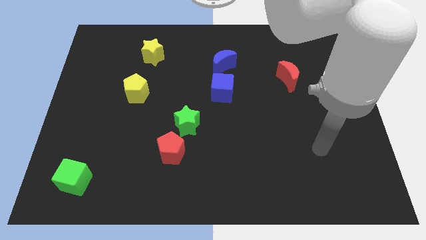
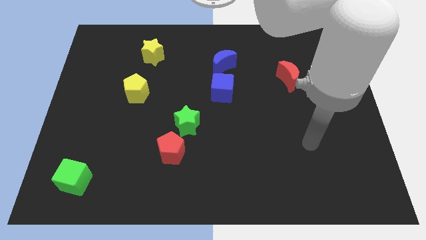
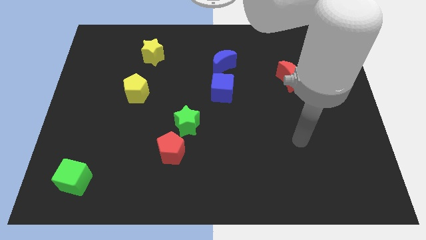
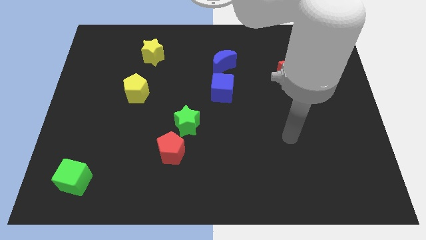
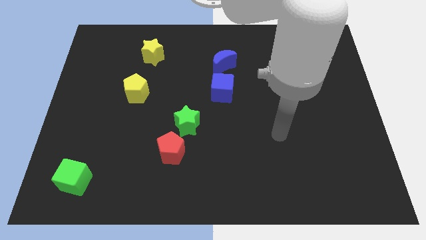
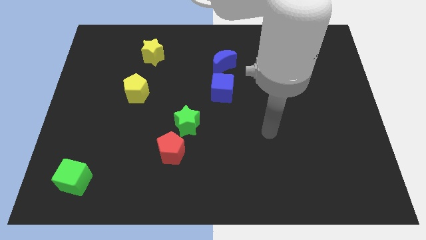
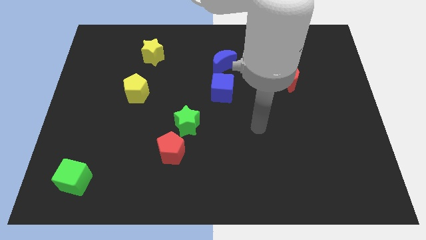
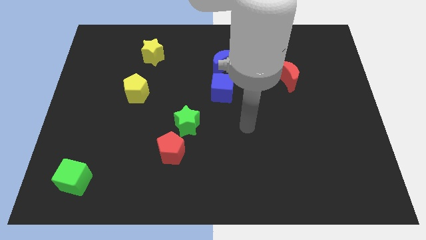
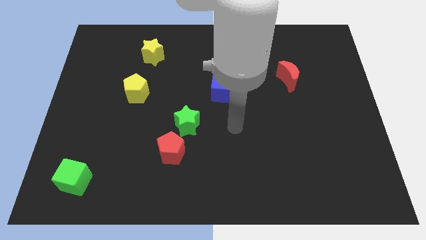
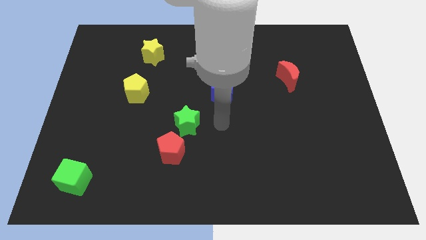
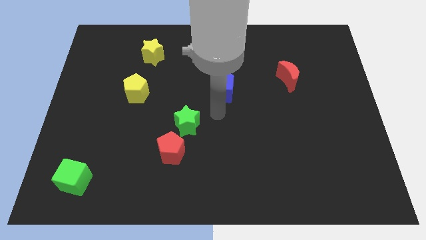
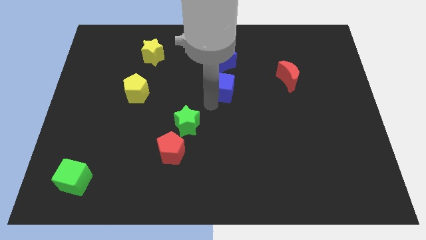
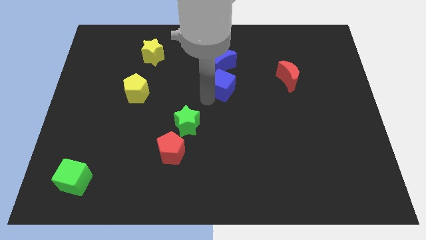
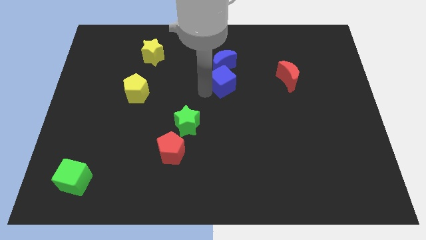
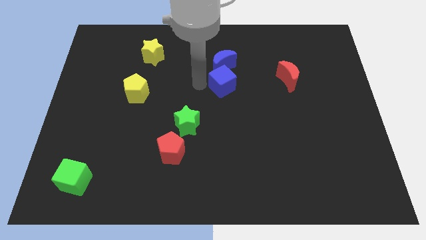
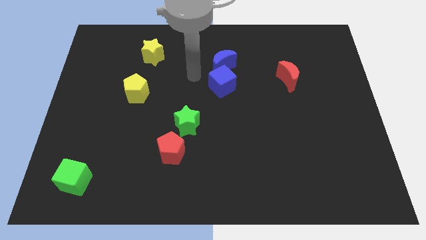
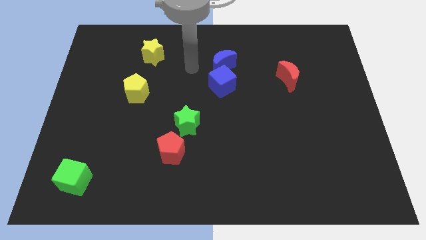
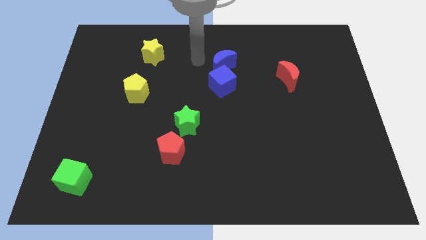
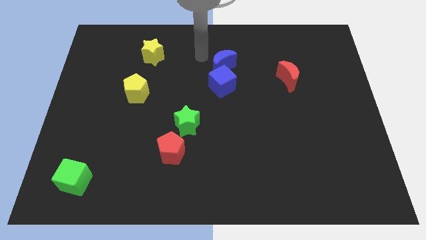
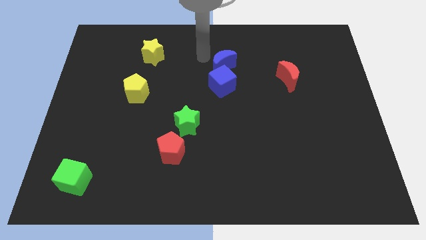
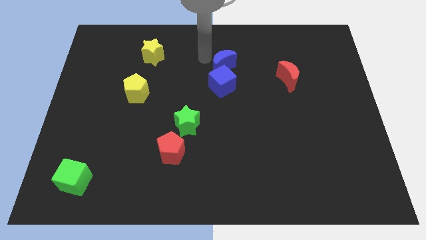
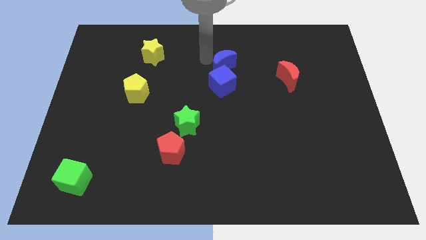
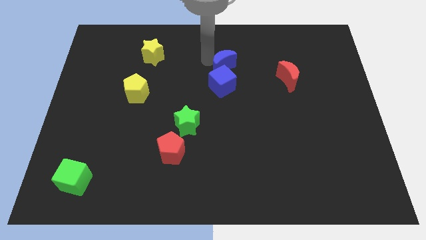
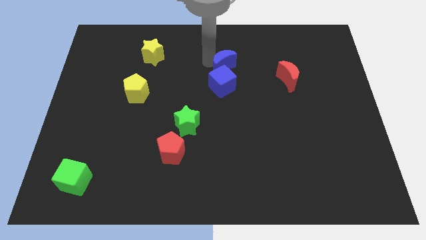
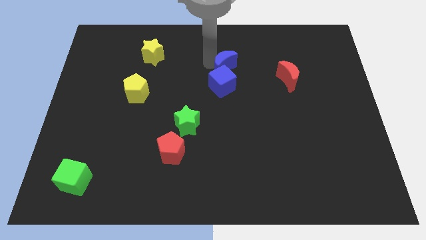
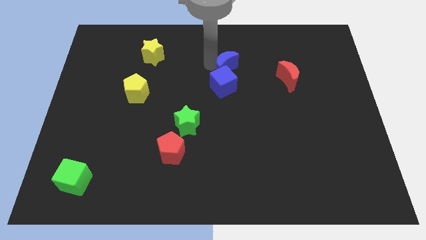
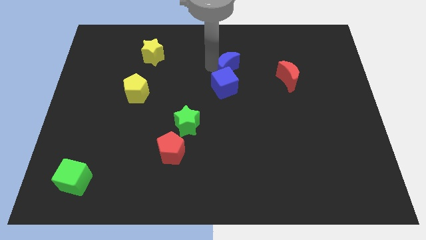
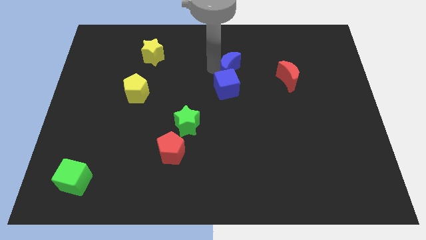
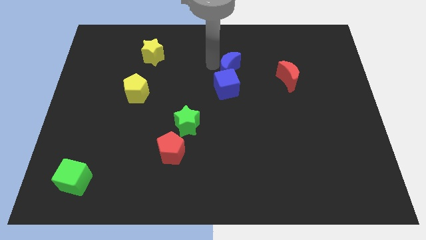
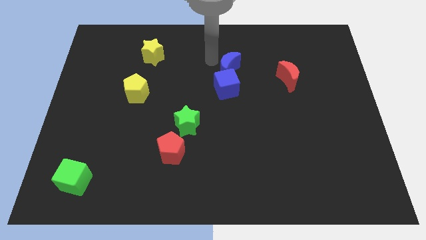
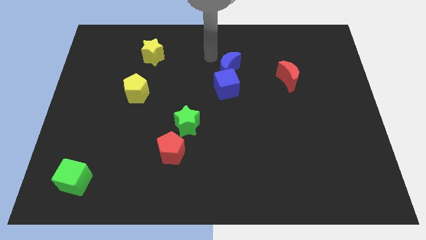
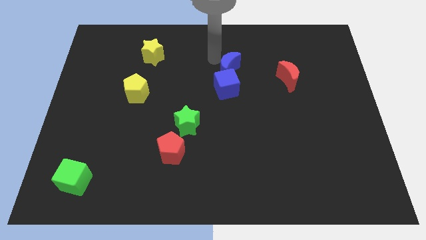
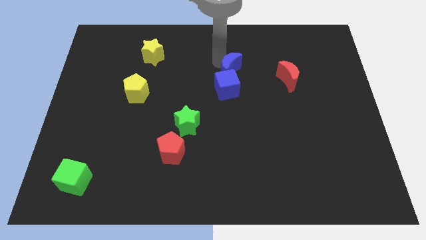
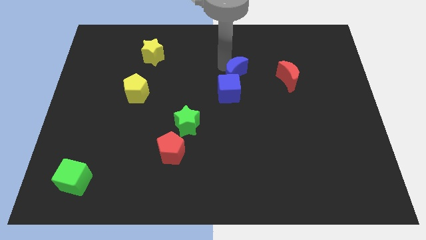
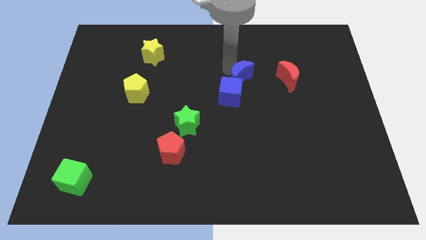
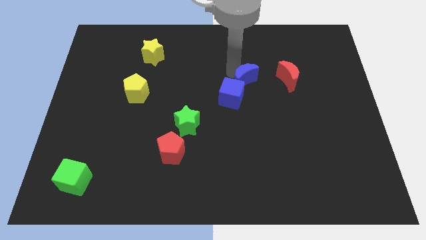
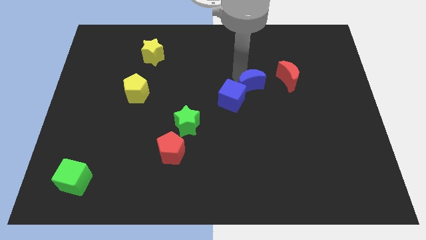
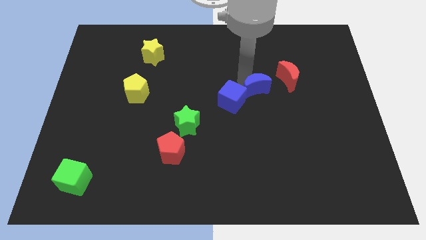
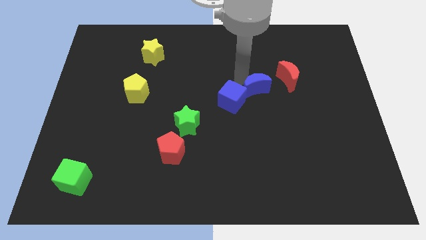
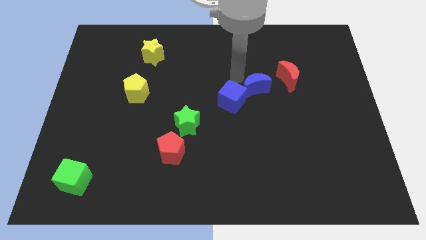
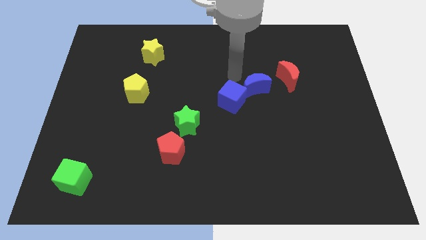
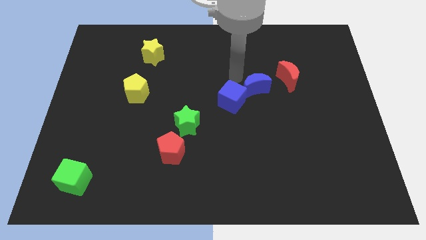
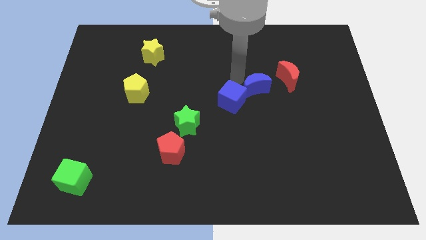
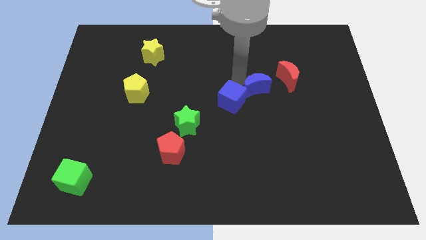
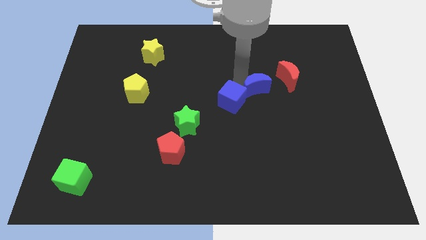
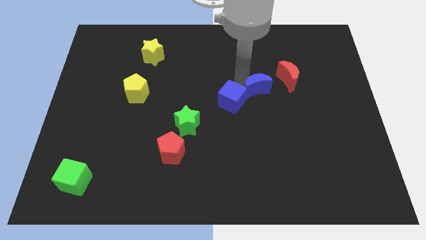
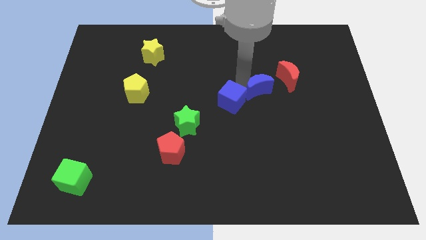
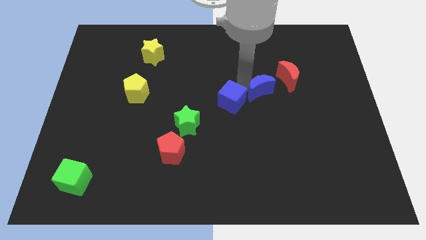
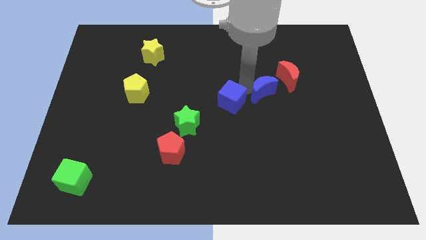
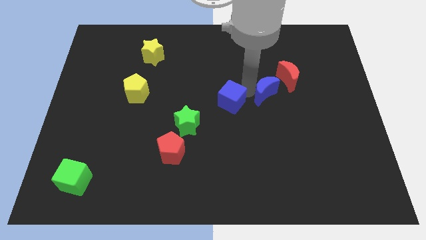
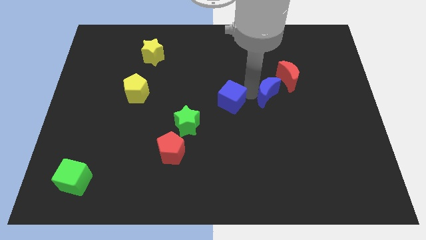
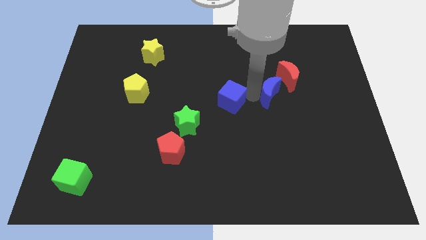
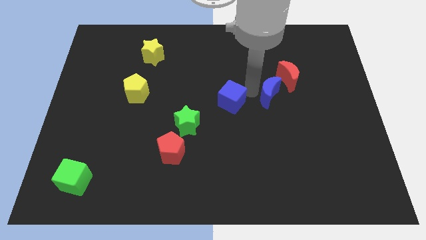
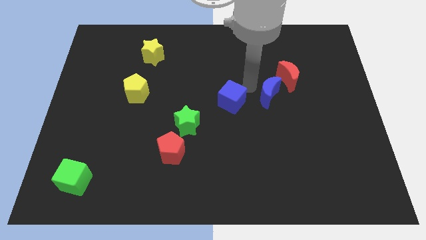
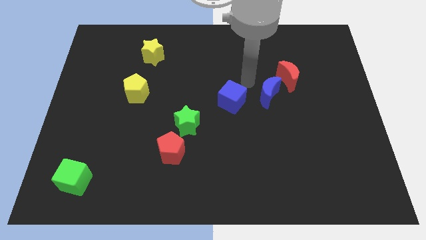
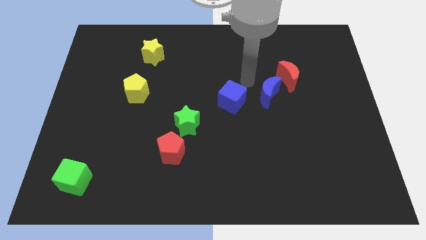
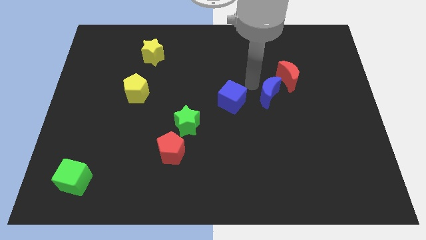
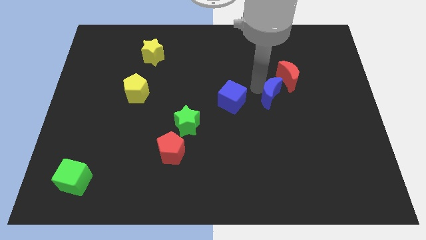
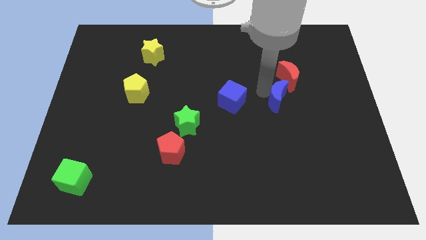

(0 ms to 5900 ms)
push the blue moon below the red moon

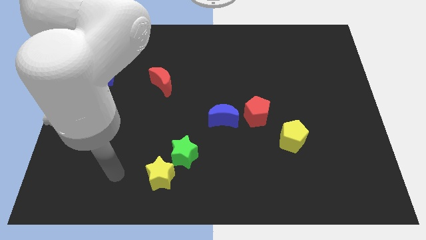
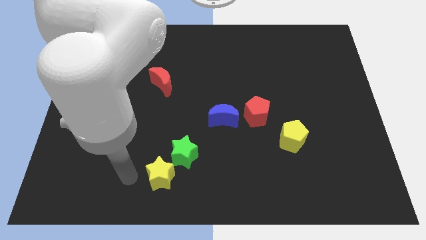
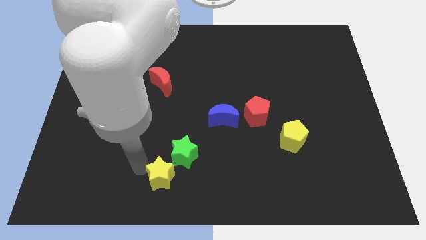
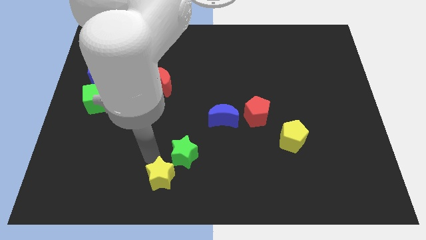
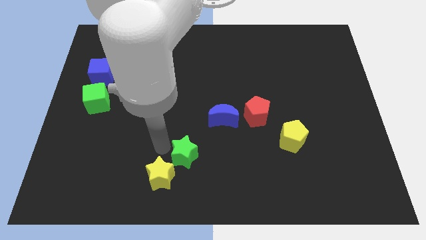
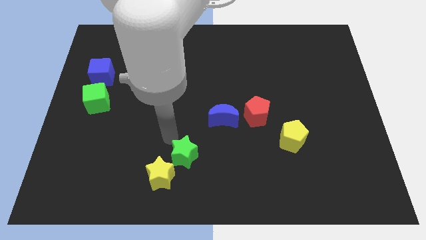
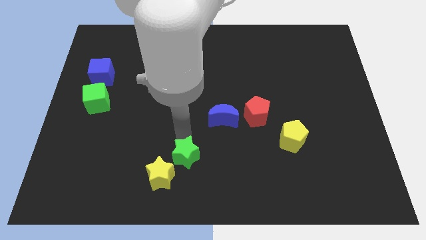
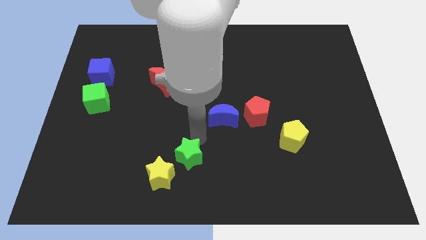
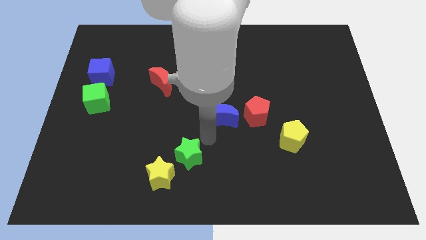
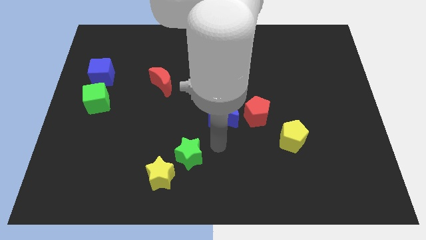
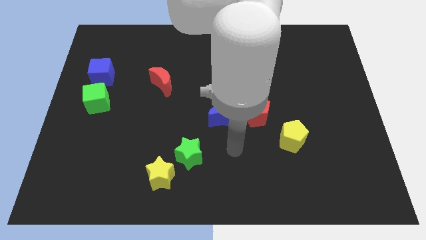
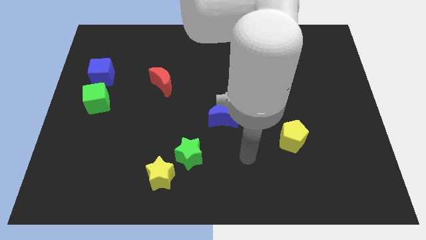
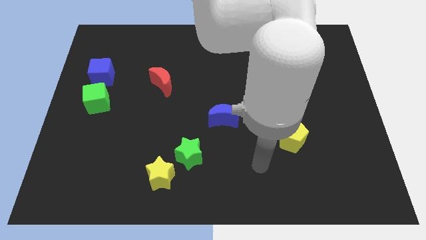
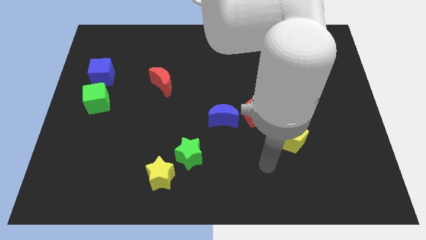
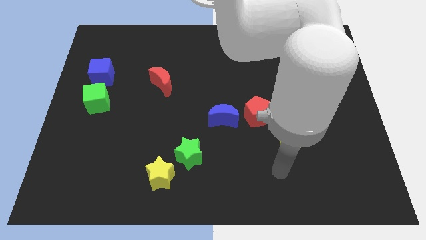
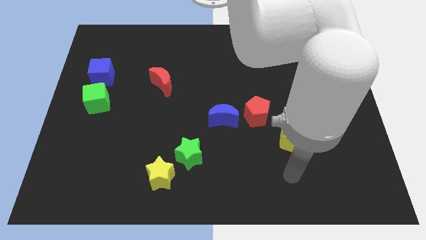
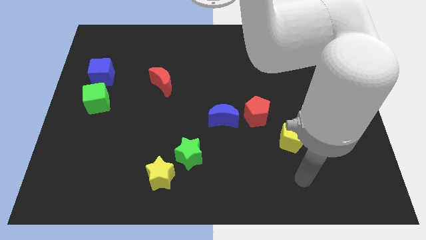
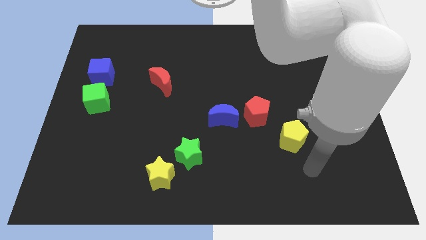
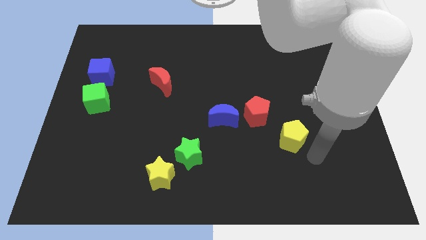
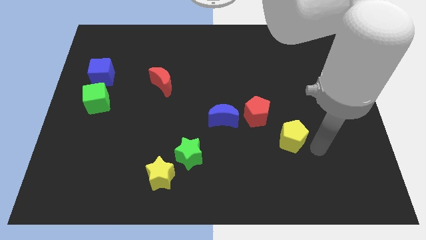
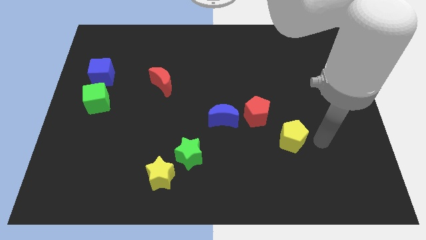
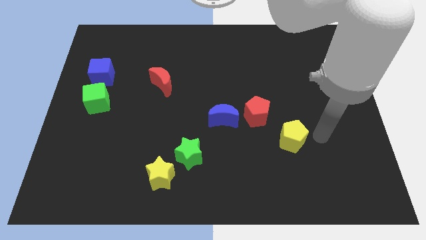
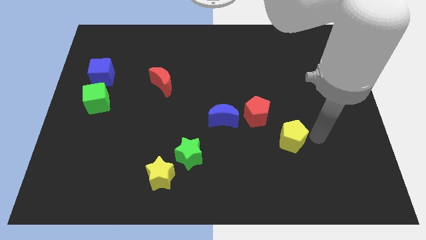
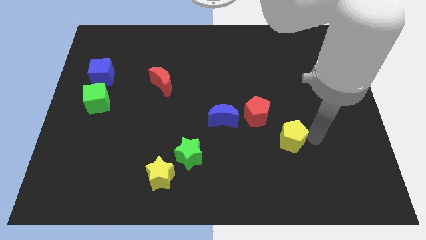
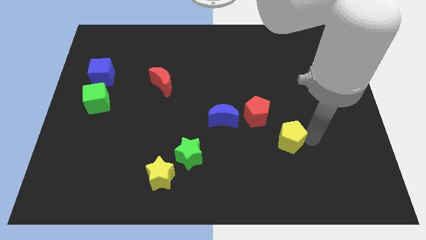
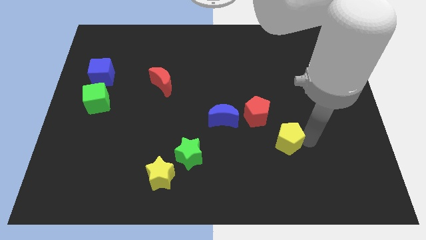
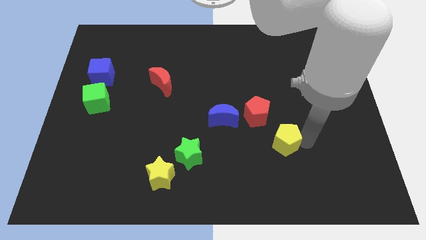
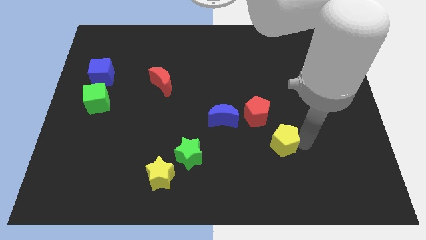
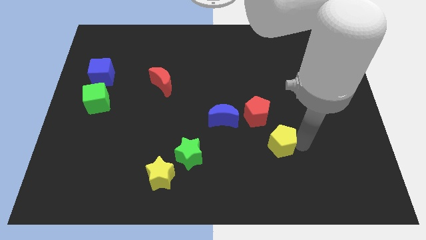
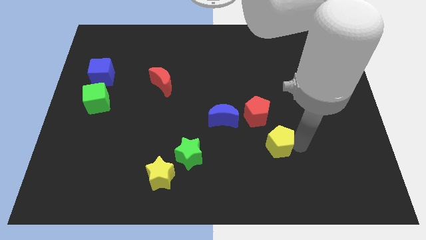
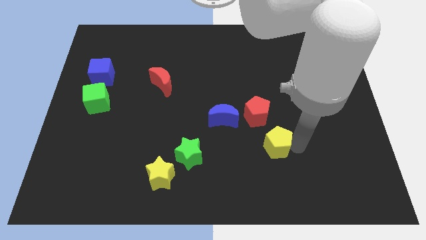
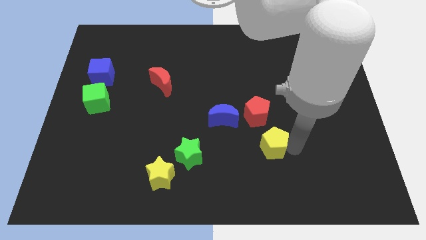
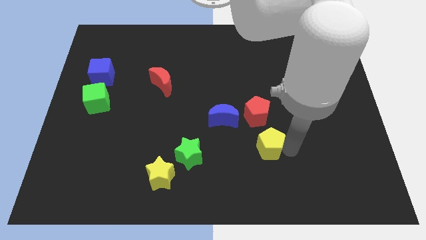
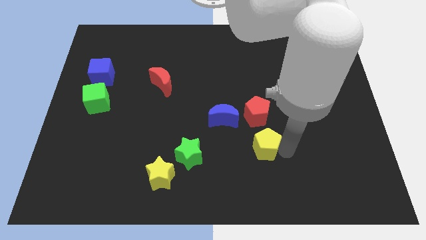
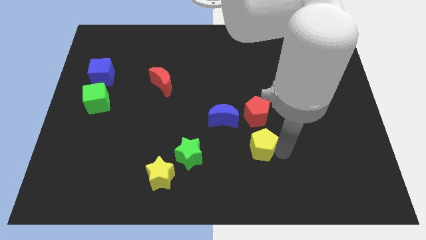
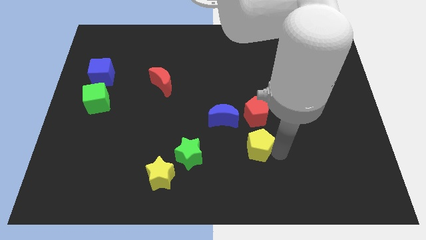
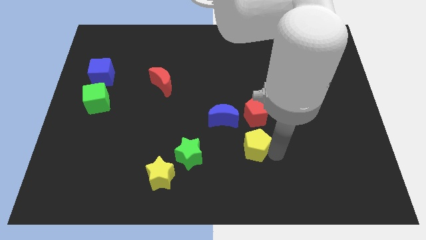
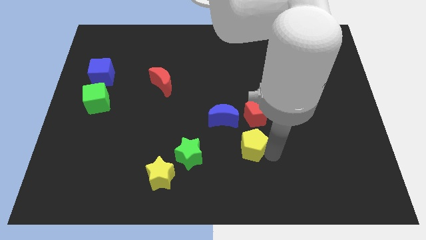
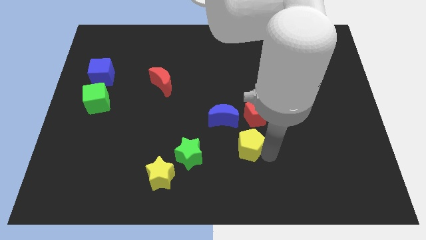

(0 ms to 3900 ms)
slide the yellow pentagon to the bottom left side of the red pentagon
